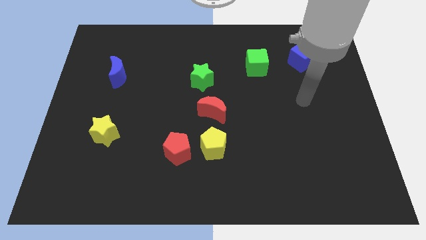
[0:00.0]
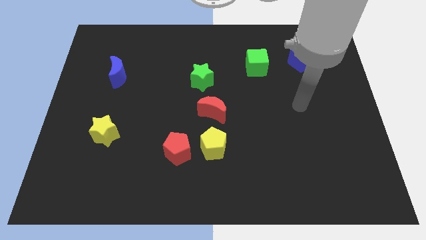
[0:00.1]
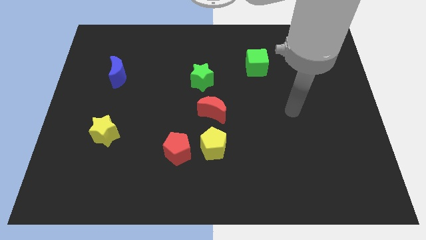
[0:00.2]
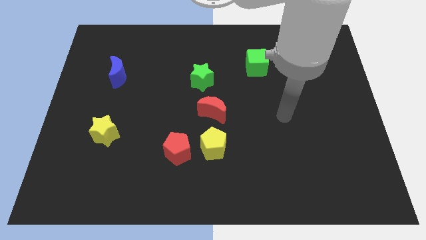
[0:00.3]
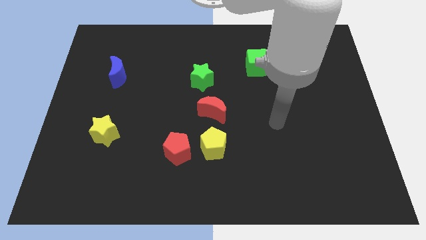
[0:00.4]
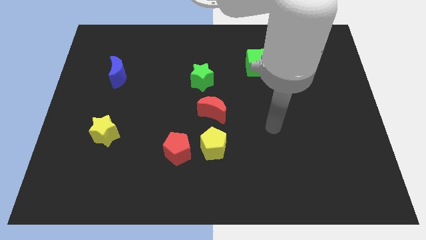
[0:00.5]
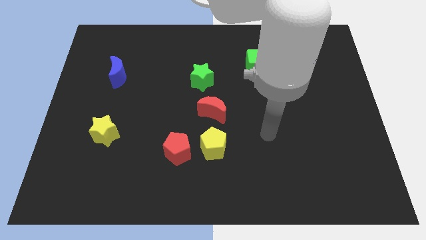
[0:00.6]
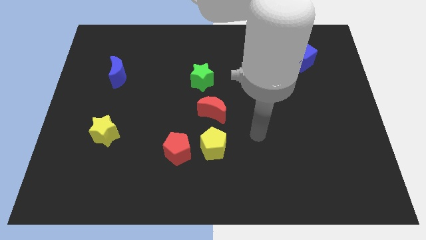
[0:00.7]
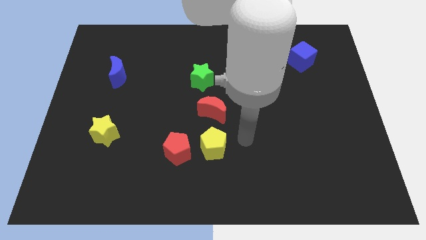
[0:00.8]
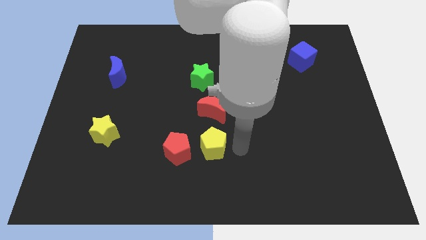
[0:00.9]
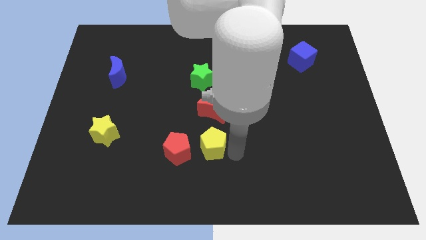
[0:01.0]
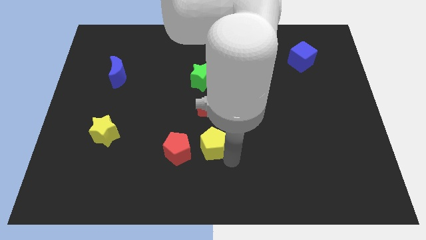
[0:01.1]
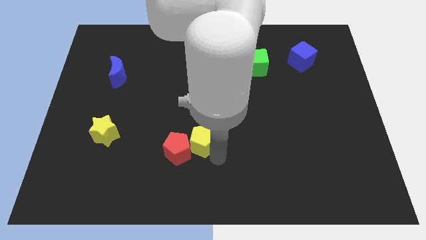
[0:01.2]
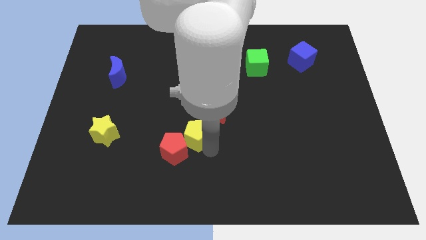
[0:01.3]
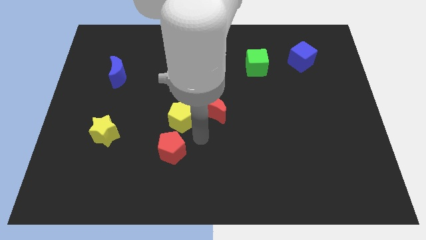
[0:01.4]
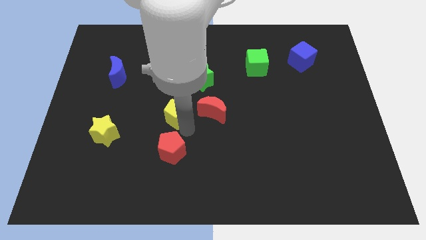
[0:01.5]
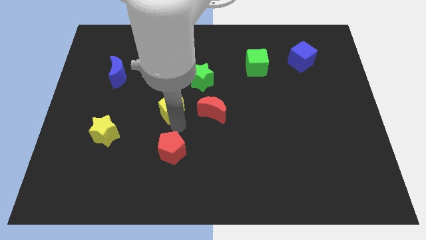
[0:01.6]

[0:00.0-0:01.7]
separate the red pentagon from the yellow pentagon

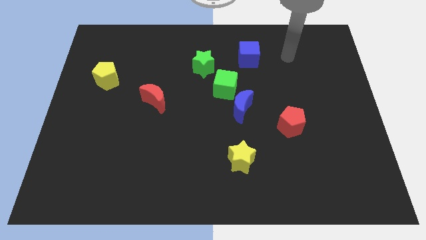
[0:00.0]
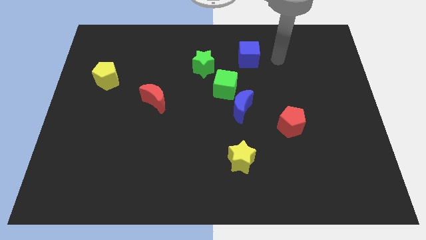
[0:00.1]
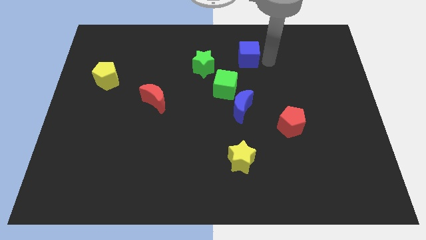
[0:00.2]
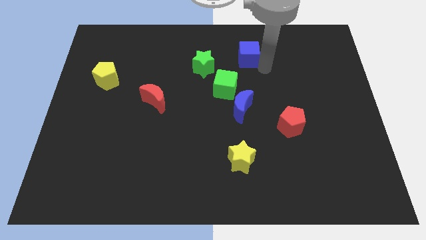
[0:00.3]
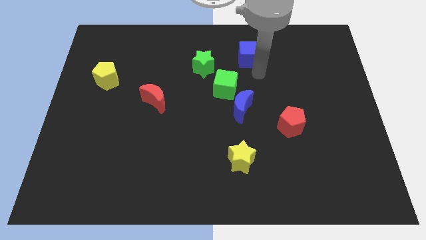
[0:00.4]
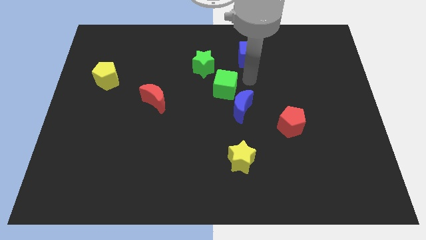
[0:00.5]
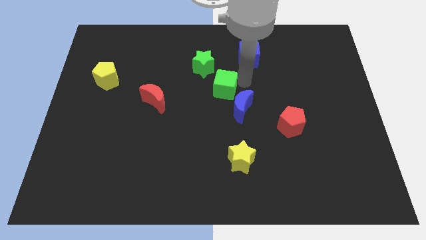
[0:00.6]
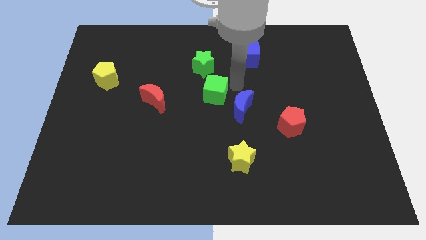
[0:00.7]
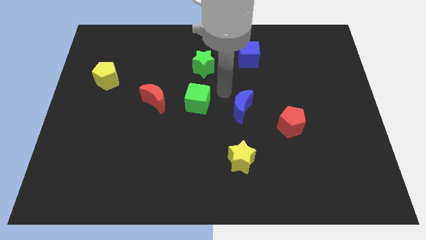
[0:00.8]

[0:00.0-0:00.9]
pull the blue moon apart from the green cube

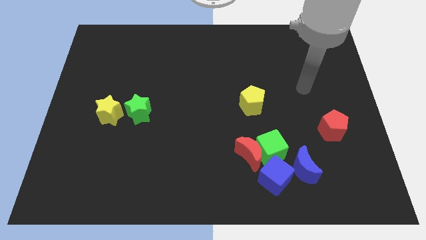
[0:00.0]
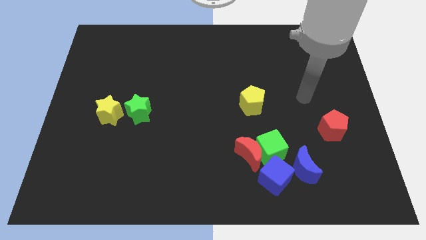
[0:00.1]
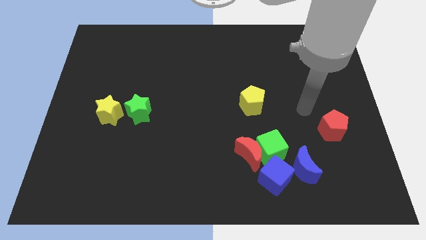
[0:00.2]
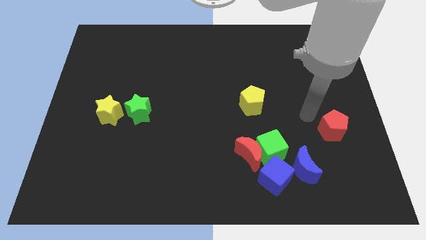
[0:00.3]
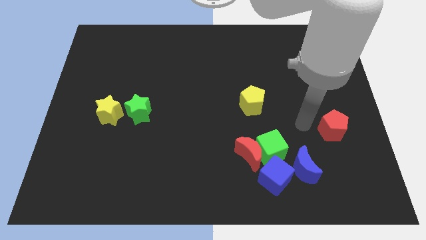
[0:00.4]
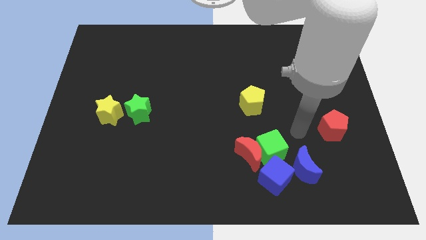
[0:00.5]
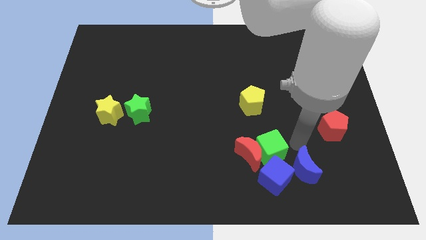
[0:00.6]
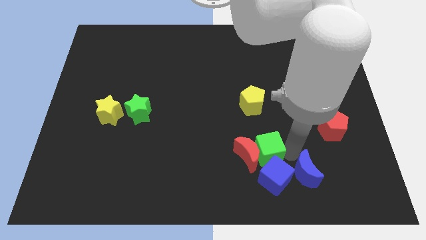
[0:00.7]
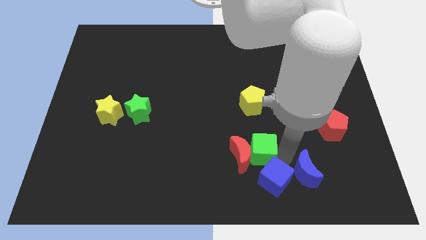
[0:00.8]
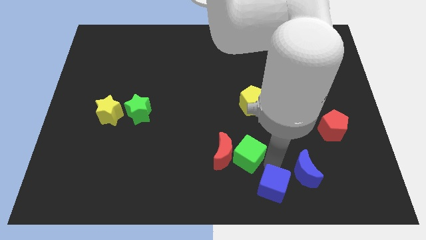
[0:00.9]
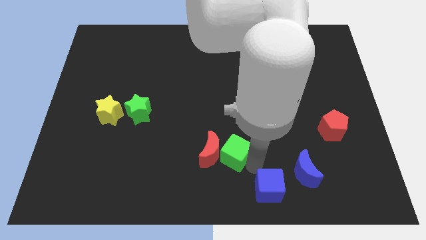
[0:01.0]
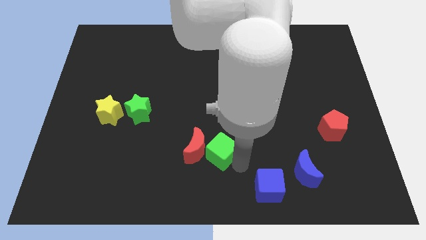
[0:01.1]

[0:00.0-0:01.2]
separate the red moon from the green cube and blue cube

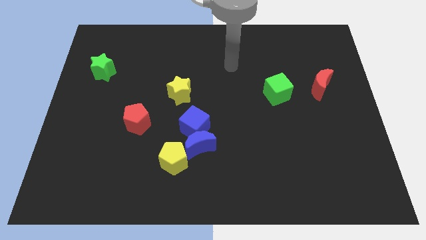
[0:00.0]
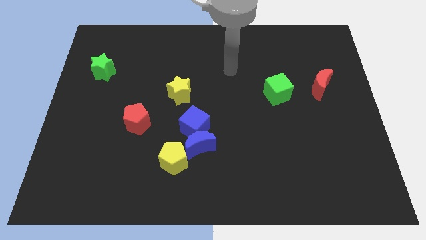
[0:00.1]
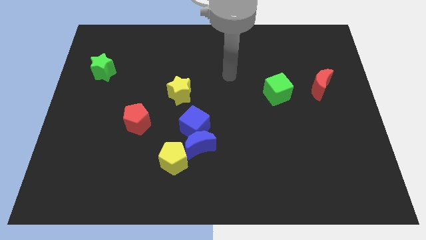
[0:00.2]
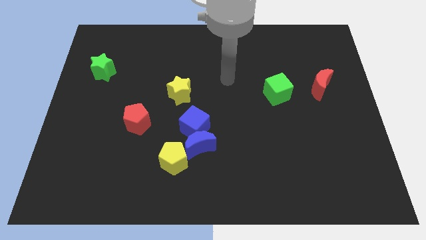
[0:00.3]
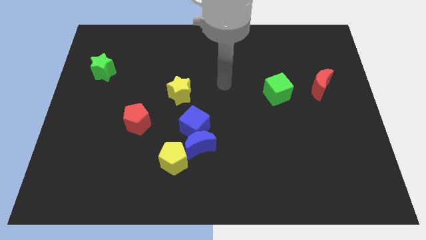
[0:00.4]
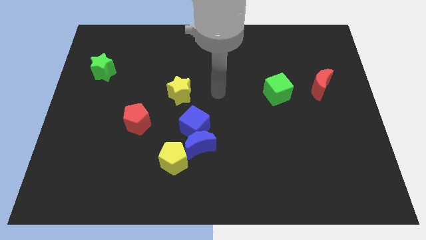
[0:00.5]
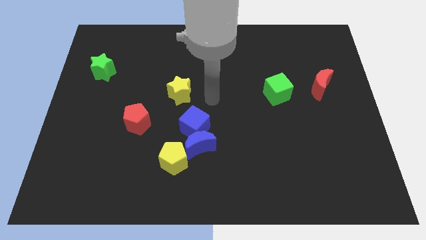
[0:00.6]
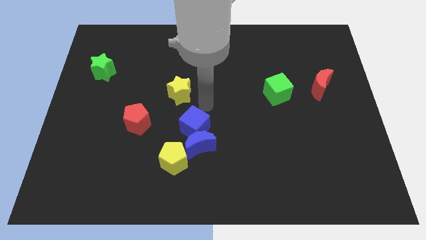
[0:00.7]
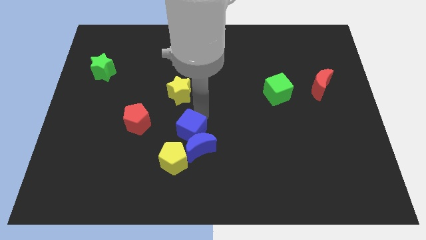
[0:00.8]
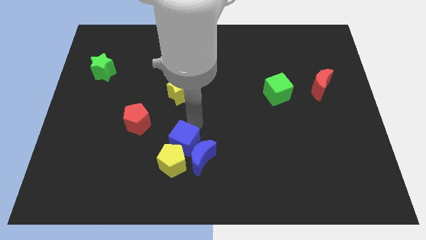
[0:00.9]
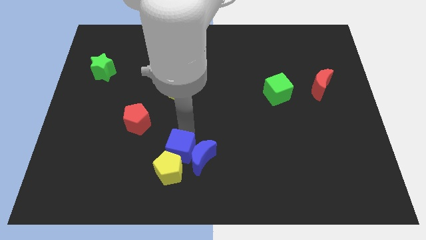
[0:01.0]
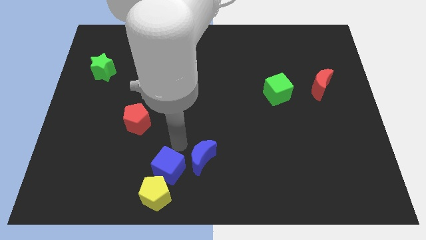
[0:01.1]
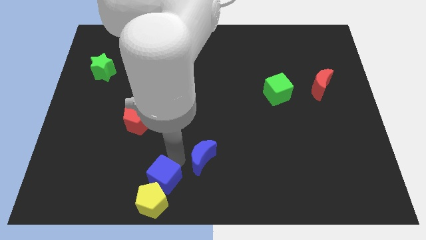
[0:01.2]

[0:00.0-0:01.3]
move the blue moon away from the blue cube and yellow pentagon

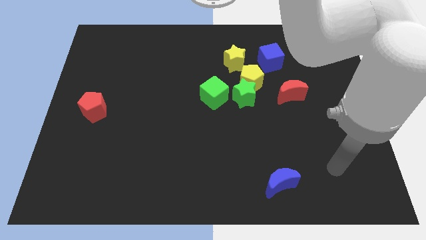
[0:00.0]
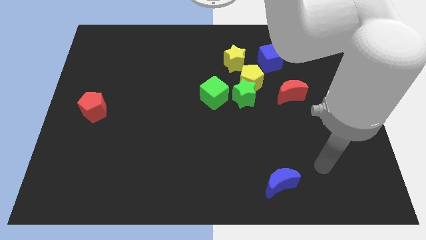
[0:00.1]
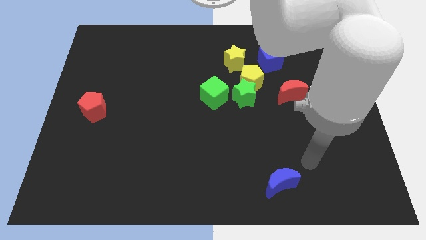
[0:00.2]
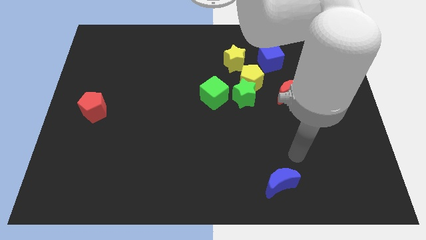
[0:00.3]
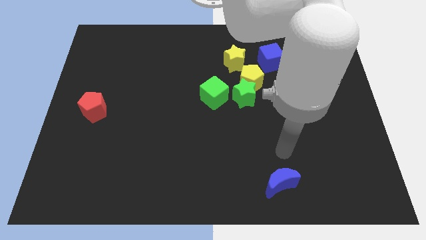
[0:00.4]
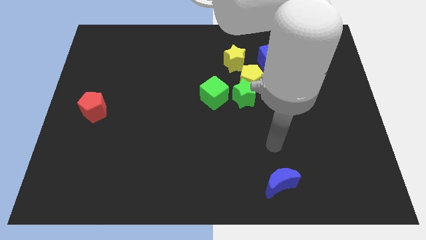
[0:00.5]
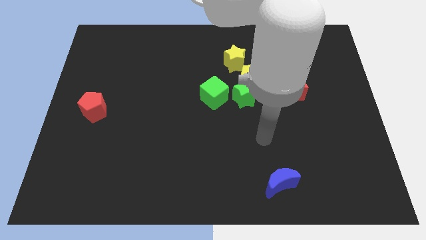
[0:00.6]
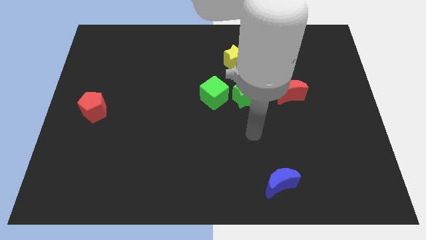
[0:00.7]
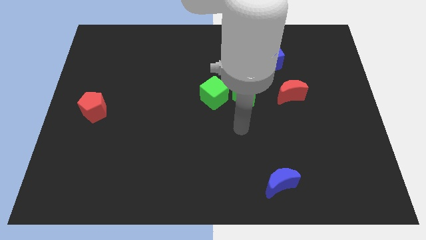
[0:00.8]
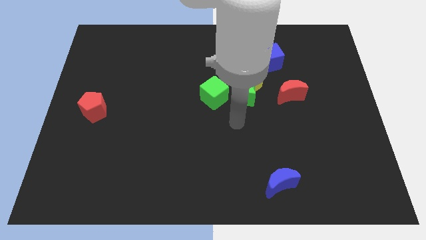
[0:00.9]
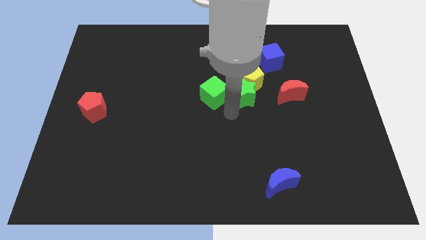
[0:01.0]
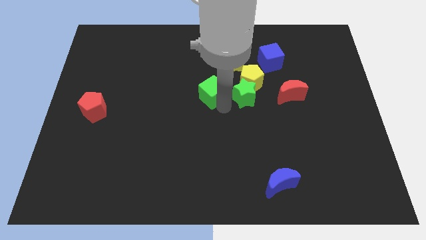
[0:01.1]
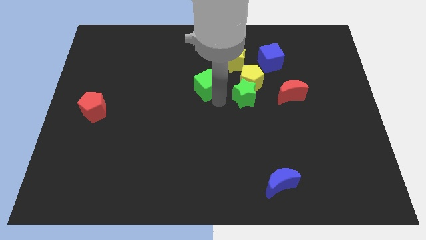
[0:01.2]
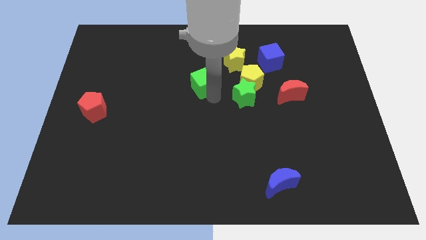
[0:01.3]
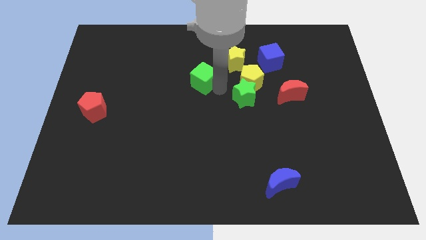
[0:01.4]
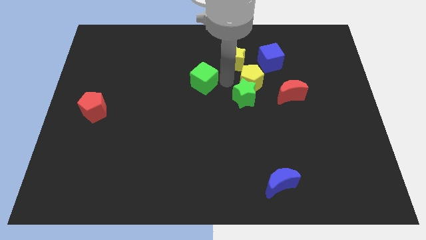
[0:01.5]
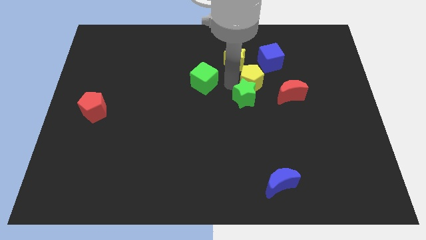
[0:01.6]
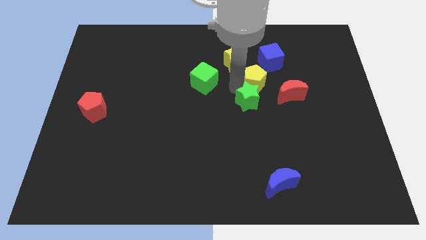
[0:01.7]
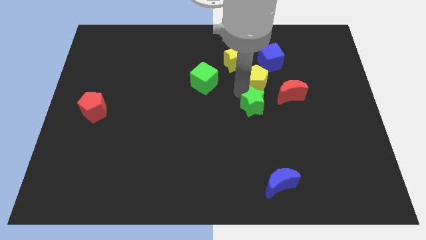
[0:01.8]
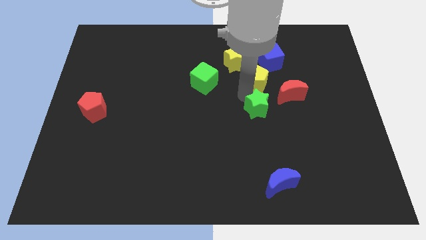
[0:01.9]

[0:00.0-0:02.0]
pull the green star apart from the yellow pentagon and green cube

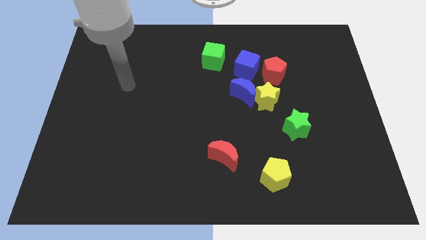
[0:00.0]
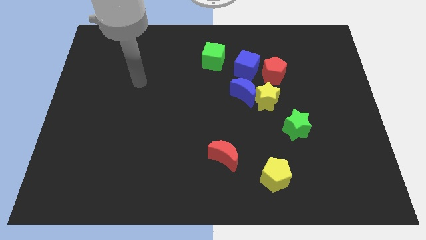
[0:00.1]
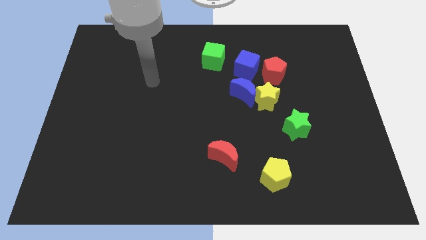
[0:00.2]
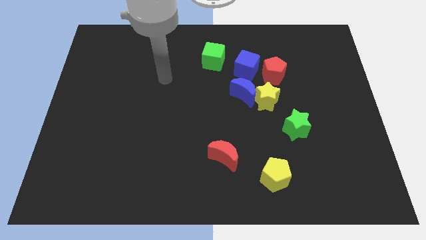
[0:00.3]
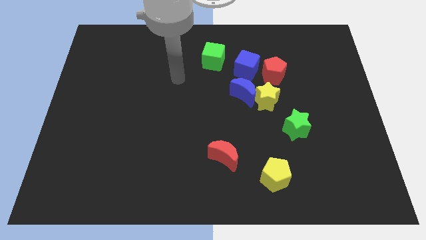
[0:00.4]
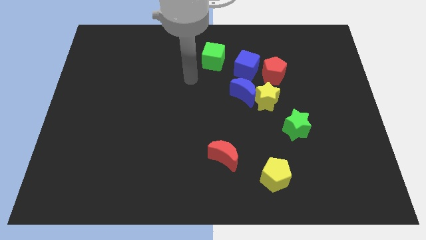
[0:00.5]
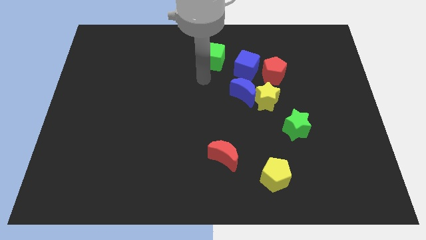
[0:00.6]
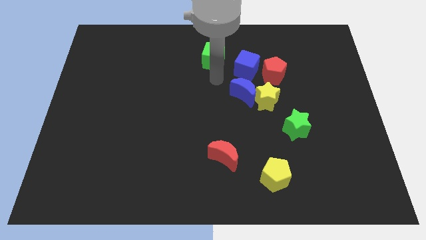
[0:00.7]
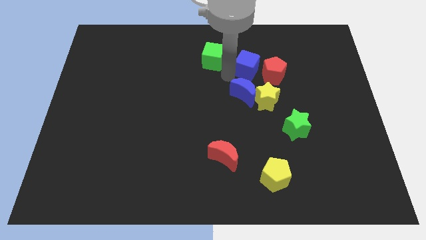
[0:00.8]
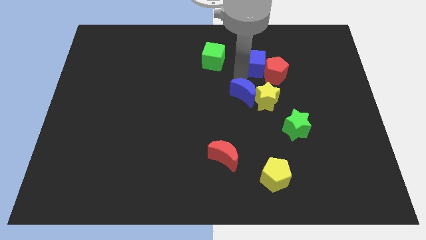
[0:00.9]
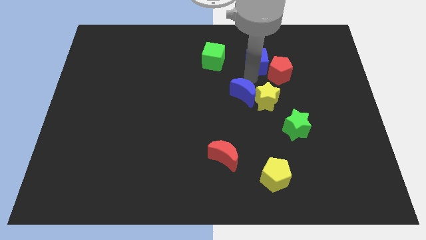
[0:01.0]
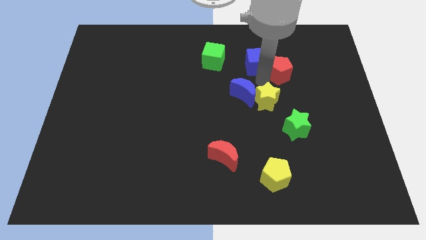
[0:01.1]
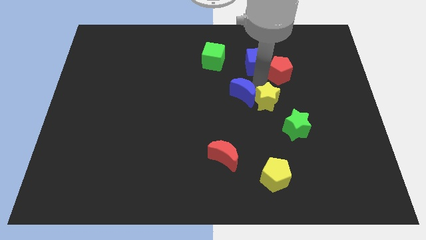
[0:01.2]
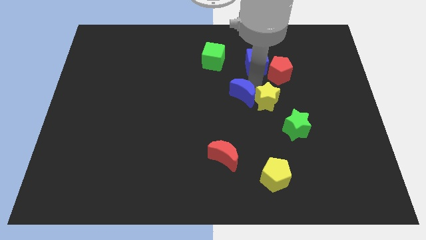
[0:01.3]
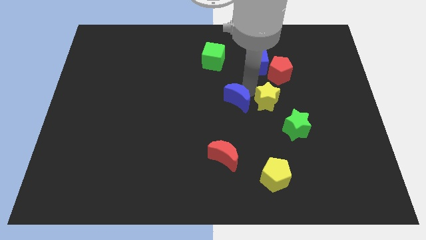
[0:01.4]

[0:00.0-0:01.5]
separate the blue moon from the group

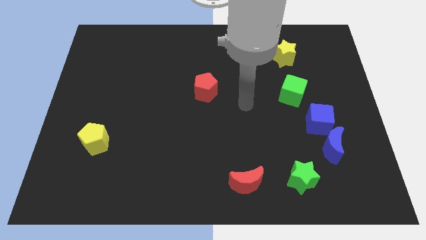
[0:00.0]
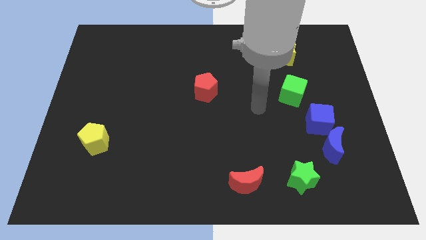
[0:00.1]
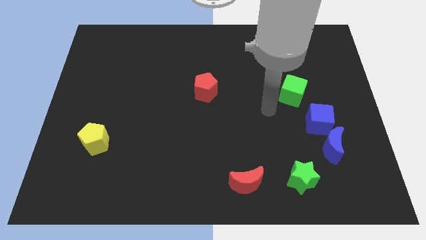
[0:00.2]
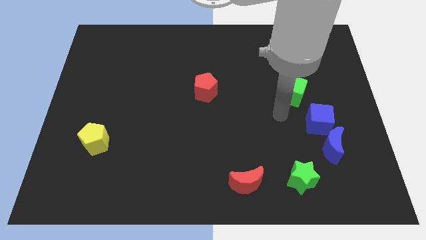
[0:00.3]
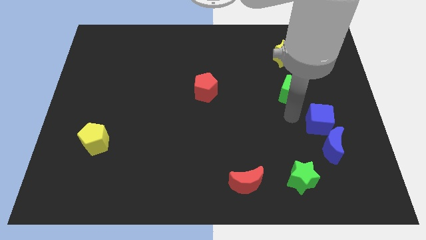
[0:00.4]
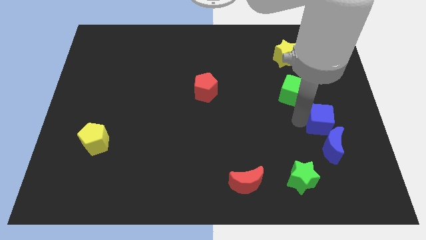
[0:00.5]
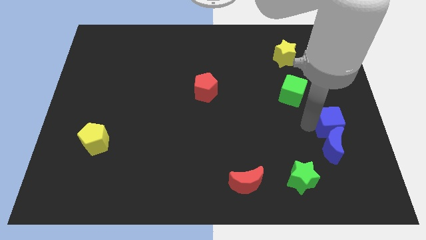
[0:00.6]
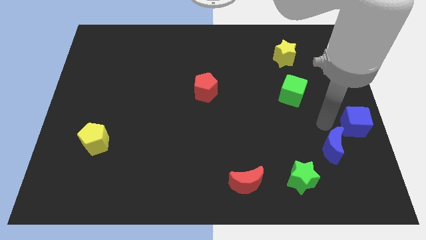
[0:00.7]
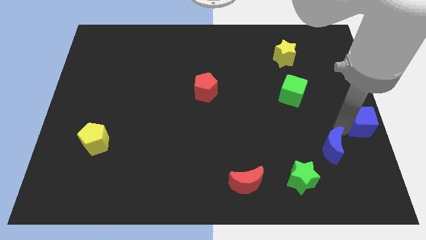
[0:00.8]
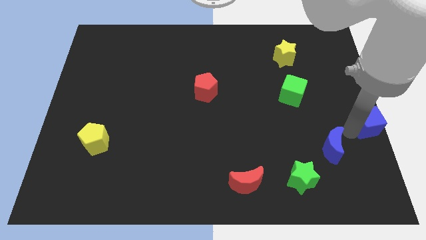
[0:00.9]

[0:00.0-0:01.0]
pull the blue moon apart from the blue cube
